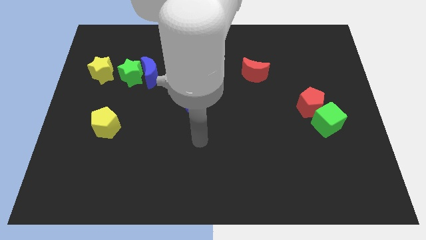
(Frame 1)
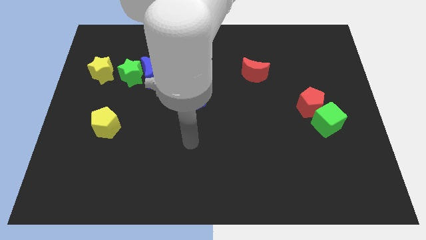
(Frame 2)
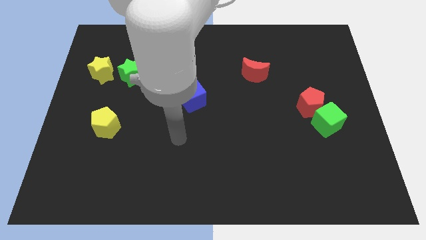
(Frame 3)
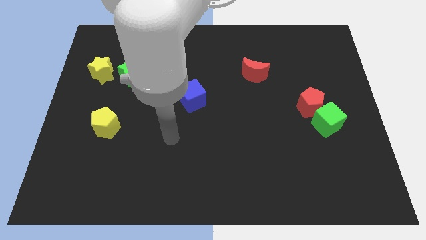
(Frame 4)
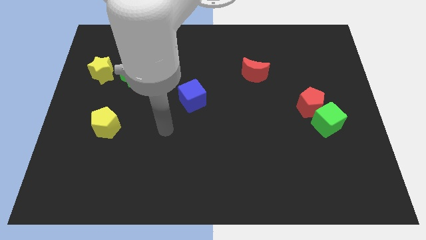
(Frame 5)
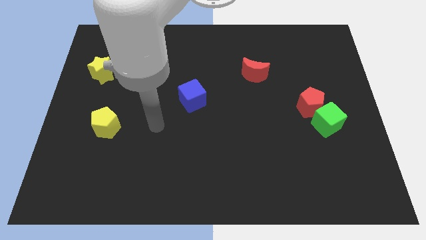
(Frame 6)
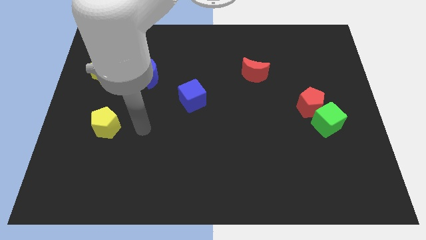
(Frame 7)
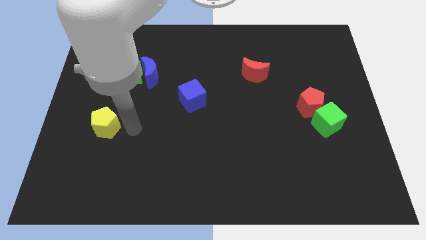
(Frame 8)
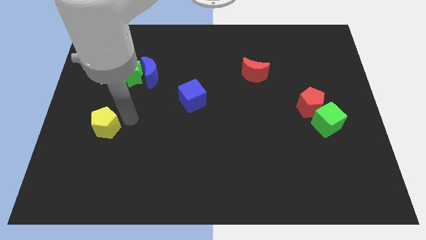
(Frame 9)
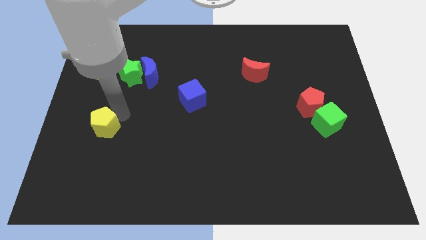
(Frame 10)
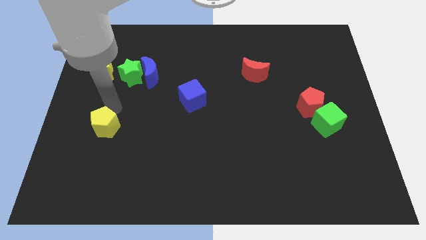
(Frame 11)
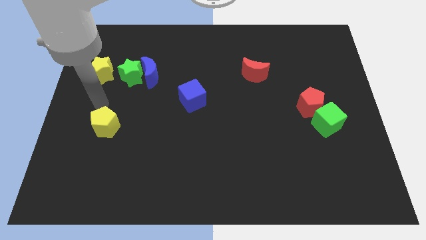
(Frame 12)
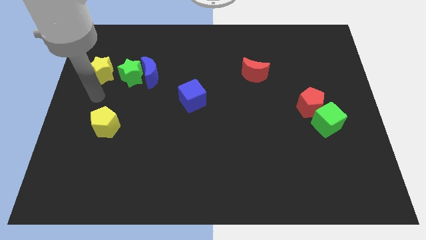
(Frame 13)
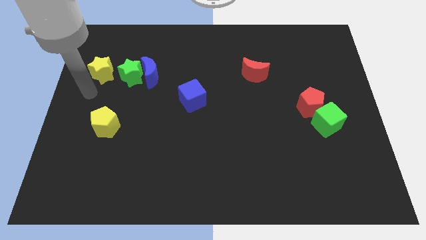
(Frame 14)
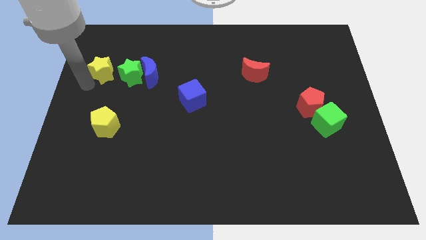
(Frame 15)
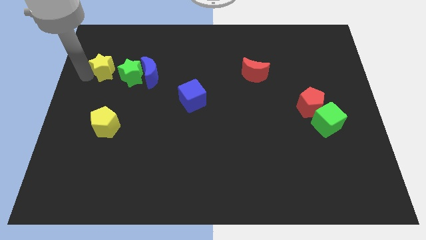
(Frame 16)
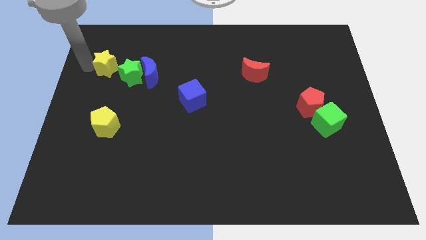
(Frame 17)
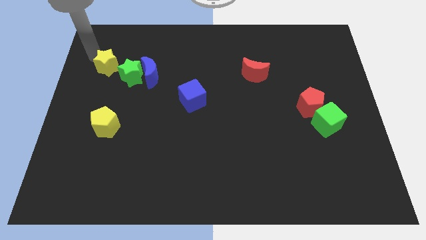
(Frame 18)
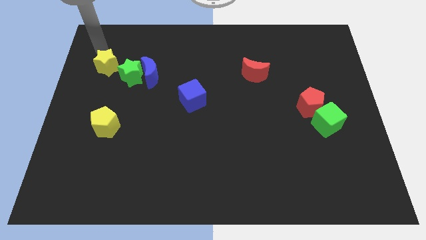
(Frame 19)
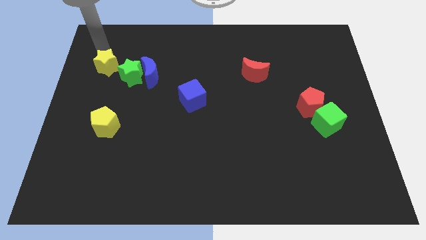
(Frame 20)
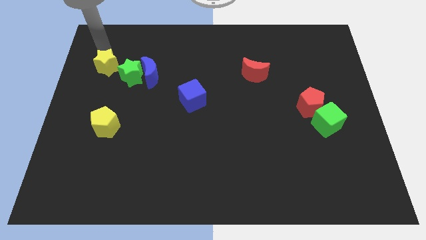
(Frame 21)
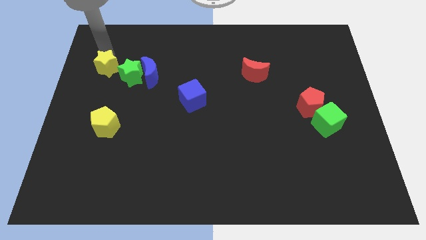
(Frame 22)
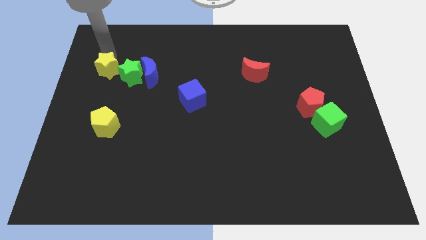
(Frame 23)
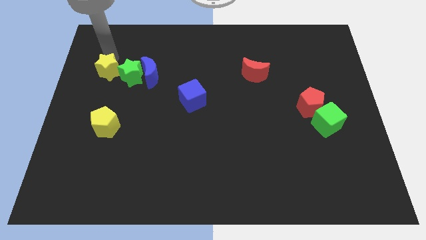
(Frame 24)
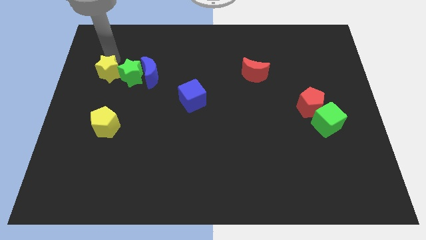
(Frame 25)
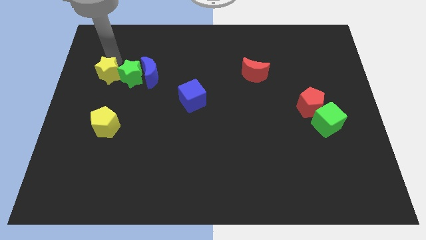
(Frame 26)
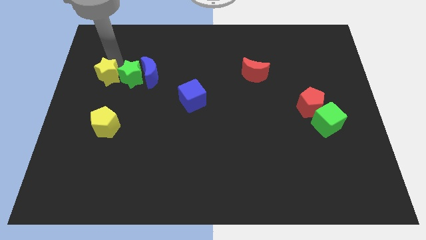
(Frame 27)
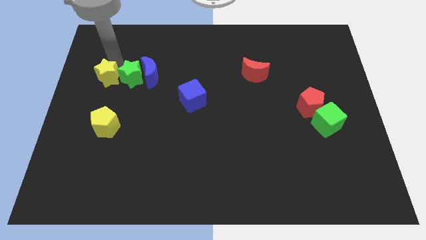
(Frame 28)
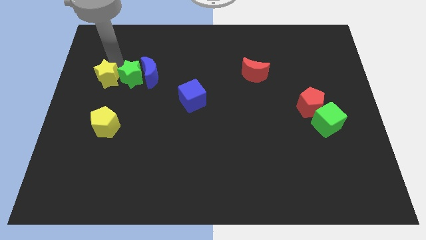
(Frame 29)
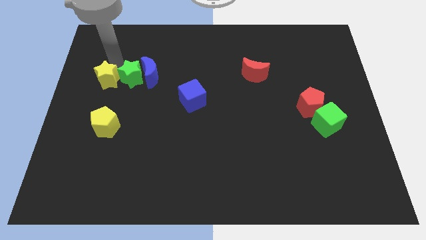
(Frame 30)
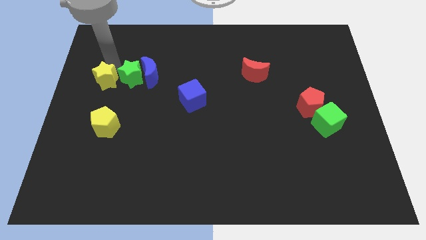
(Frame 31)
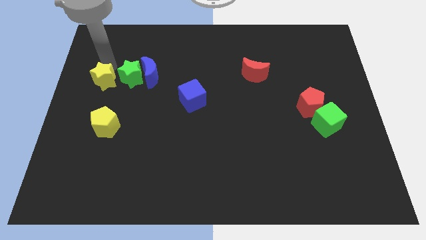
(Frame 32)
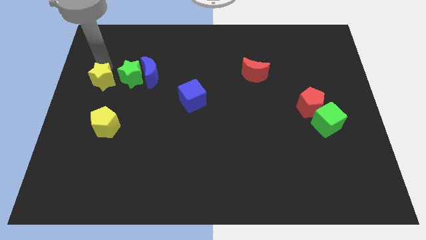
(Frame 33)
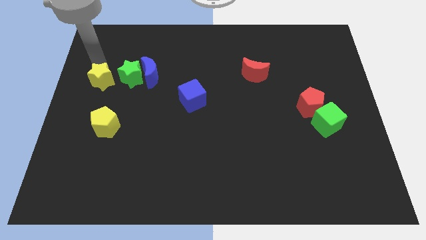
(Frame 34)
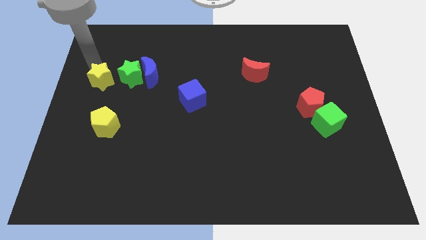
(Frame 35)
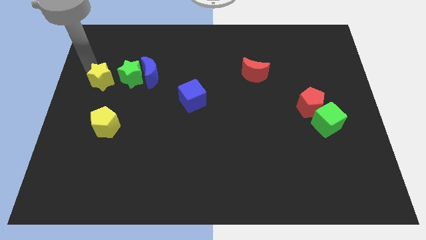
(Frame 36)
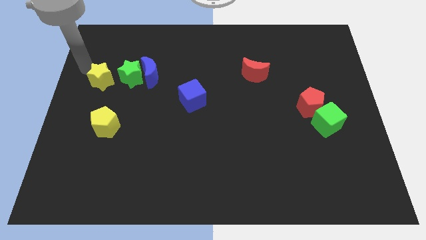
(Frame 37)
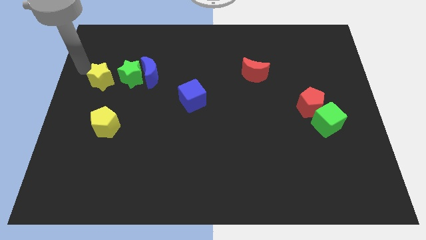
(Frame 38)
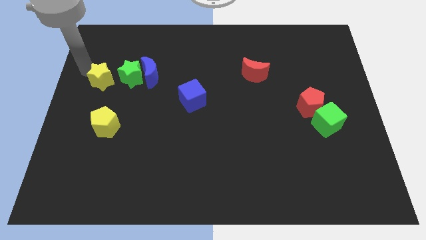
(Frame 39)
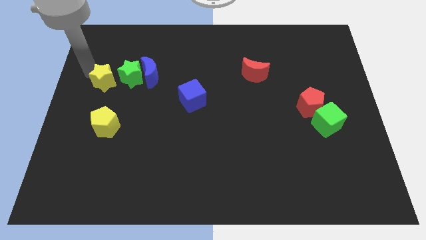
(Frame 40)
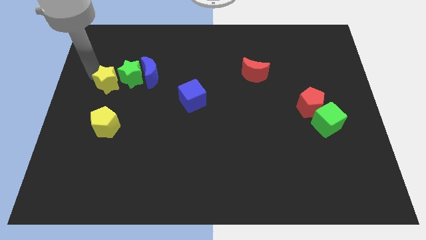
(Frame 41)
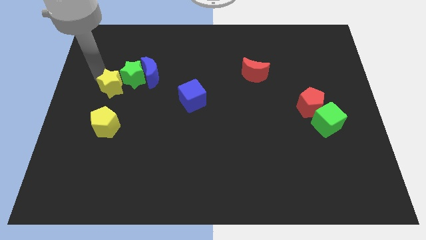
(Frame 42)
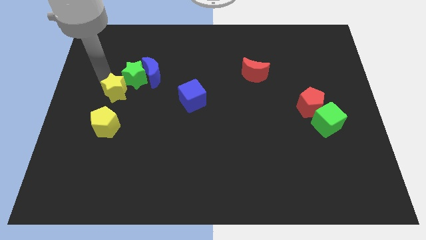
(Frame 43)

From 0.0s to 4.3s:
slightly slide the yellow star diagonally downwards and right

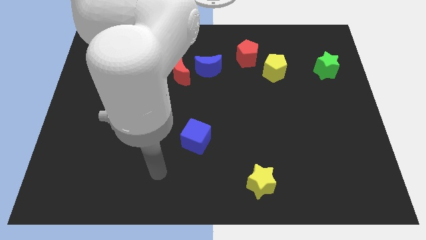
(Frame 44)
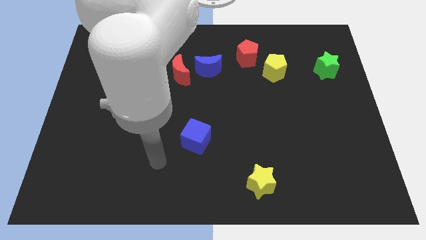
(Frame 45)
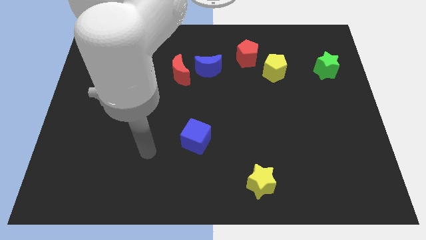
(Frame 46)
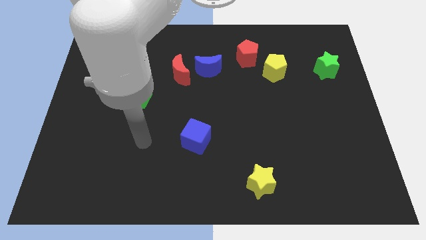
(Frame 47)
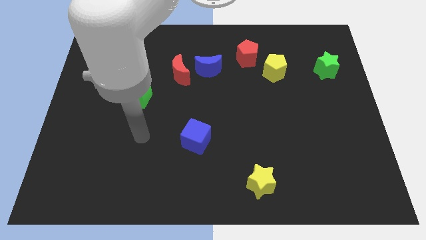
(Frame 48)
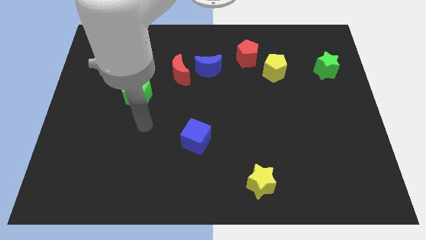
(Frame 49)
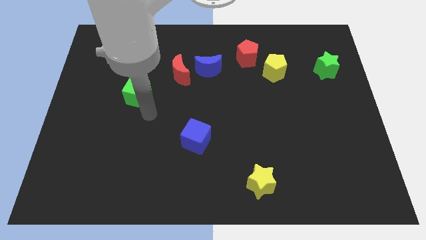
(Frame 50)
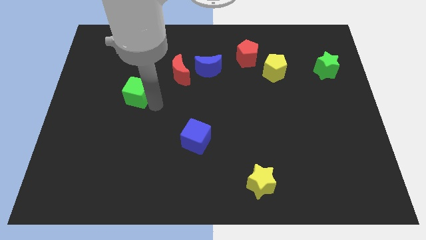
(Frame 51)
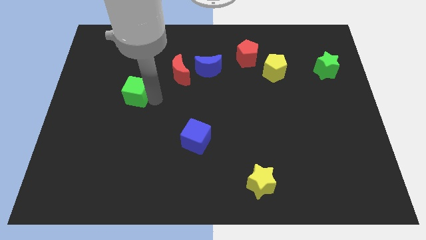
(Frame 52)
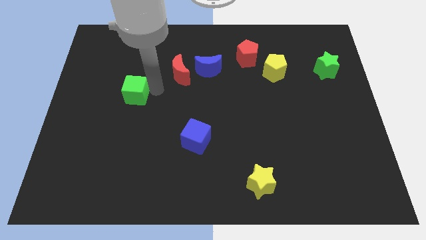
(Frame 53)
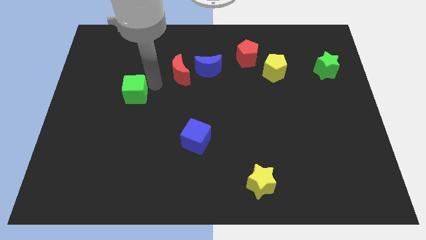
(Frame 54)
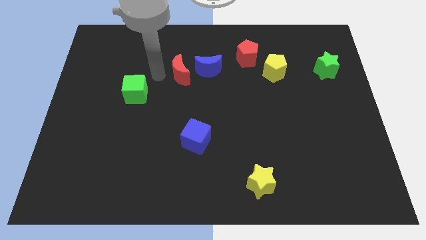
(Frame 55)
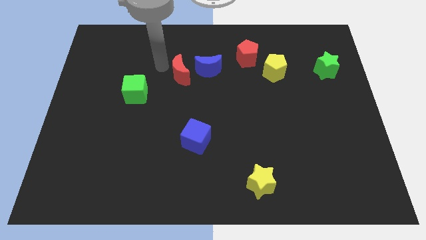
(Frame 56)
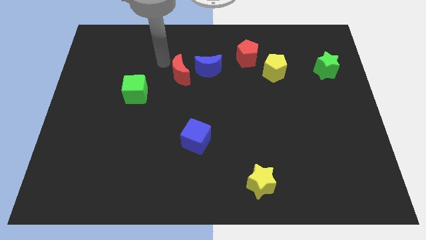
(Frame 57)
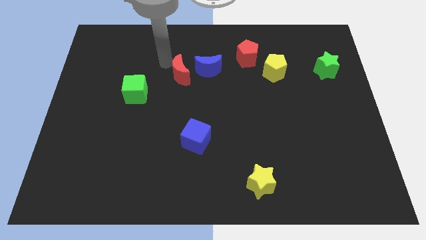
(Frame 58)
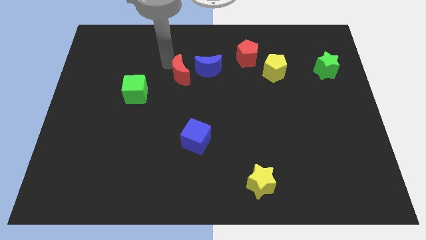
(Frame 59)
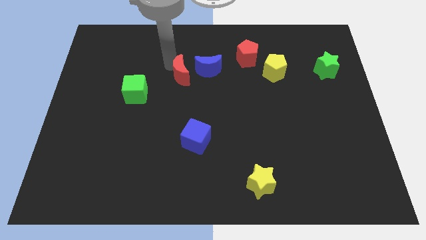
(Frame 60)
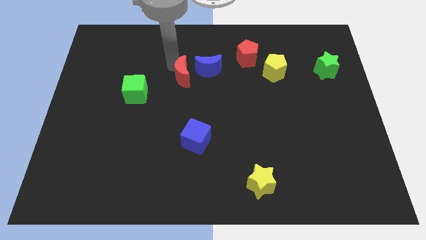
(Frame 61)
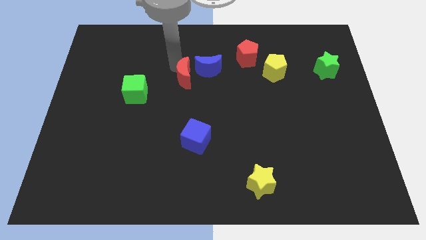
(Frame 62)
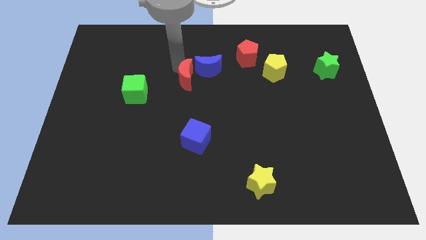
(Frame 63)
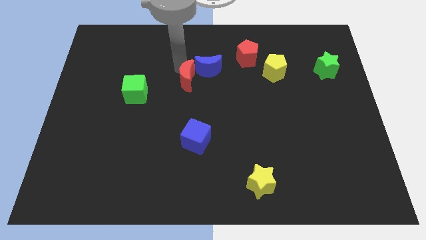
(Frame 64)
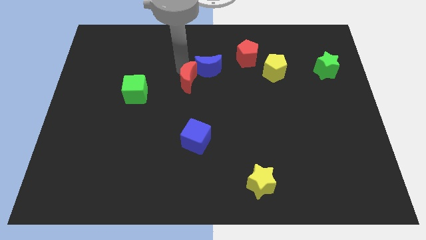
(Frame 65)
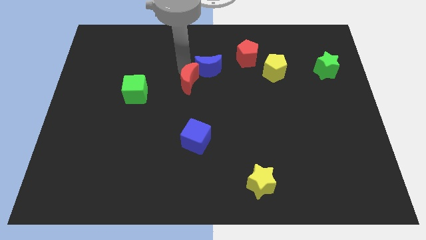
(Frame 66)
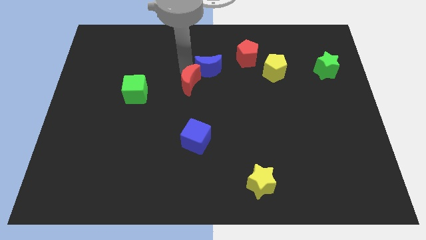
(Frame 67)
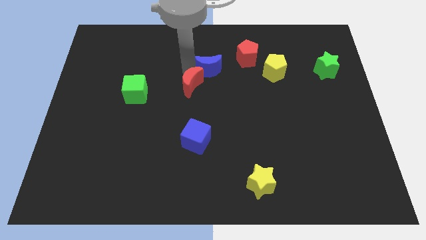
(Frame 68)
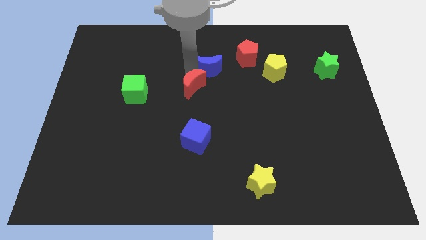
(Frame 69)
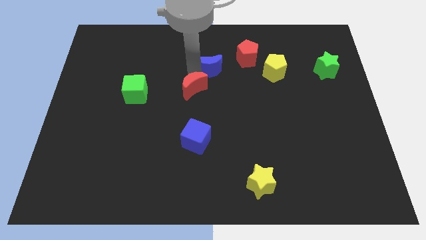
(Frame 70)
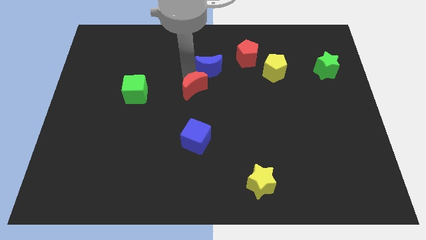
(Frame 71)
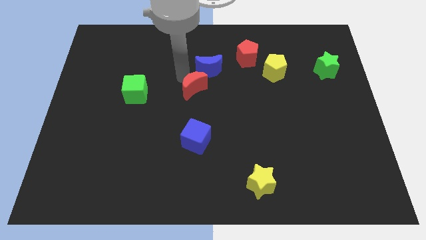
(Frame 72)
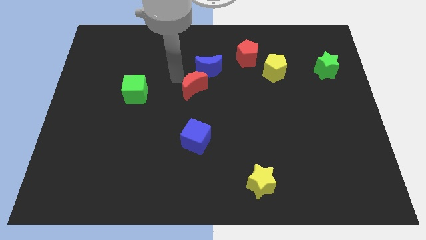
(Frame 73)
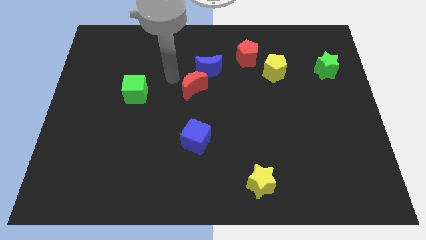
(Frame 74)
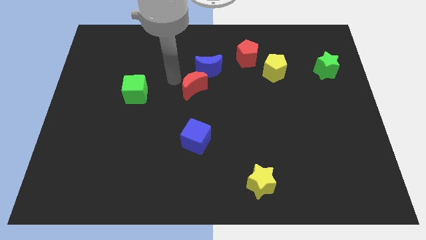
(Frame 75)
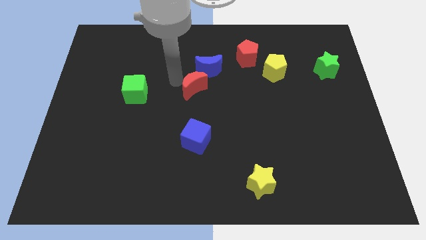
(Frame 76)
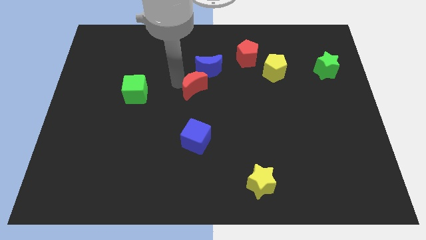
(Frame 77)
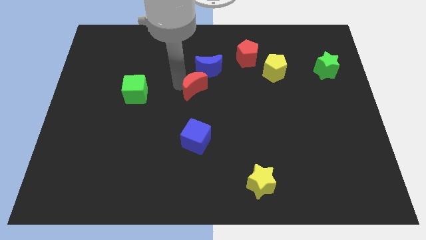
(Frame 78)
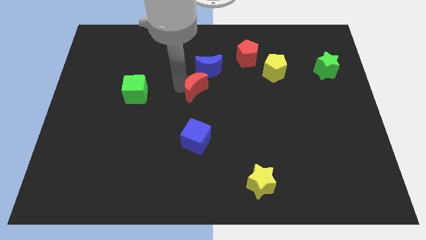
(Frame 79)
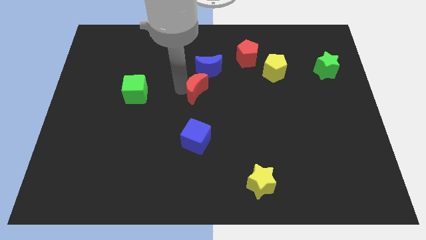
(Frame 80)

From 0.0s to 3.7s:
move the red moon slightly downwards and right

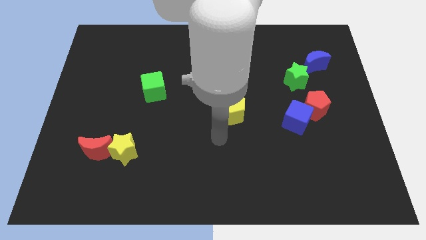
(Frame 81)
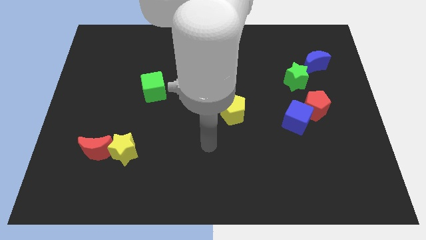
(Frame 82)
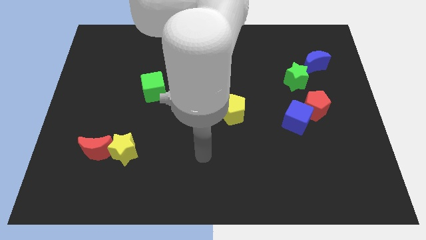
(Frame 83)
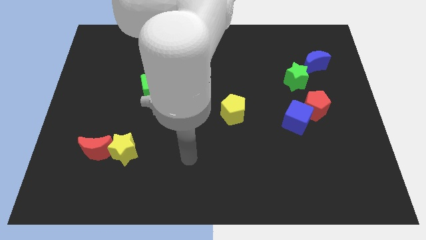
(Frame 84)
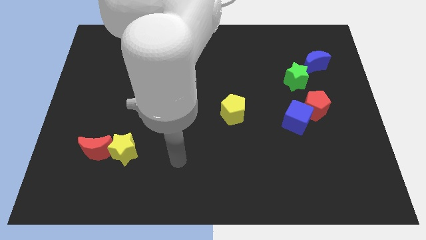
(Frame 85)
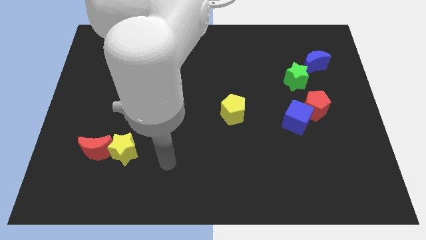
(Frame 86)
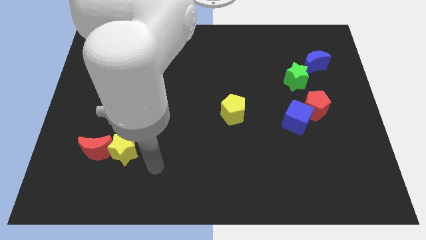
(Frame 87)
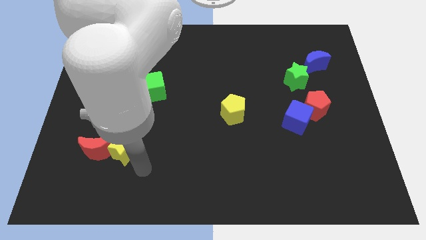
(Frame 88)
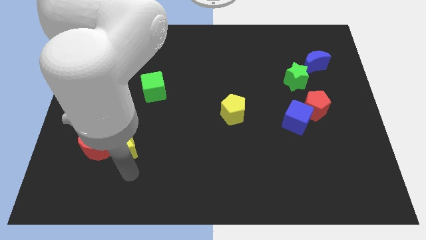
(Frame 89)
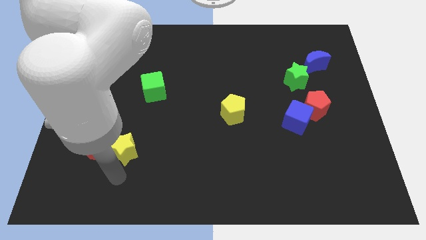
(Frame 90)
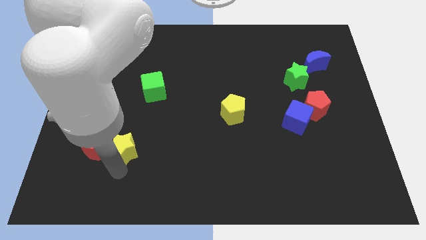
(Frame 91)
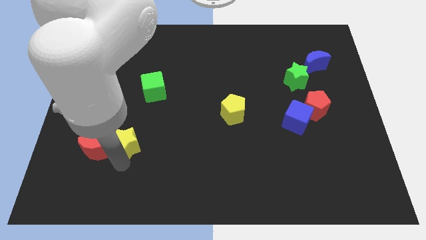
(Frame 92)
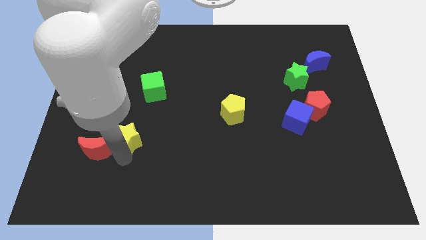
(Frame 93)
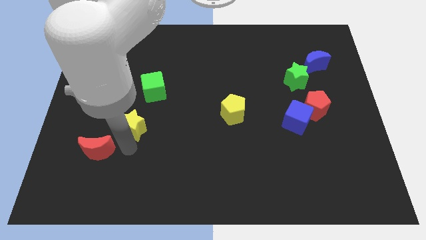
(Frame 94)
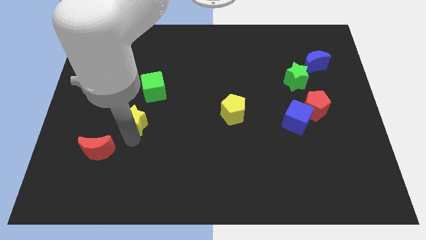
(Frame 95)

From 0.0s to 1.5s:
slightly push the yellow star up
